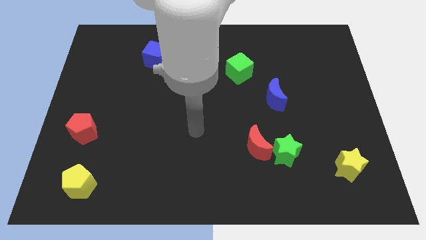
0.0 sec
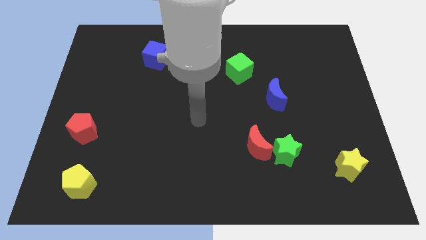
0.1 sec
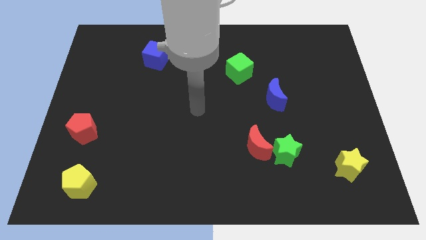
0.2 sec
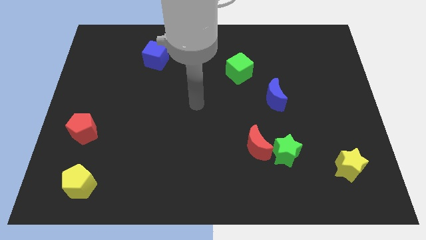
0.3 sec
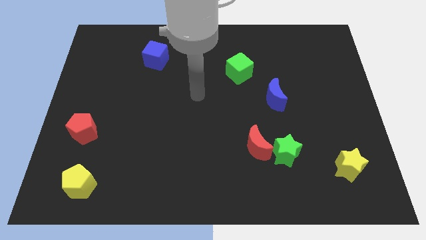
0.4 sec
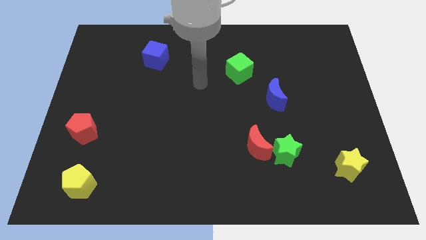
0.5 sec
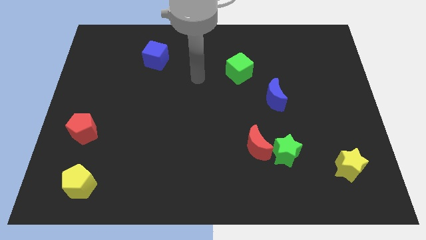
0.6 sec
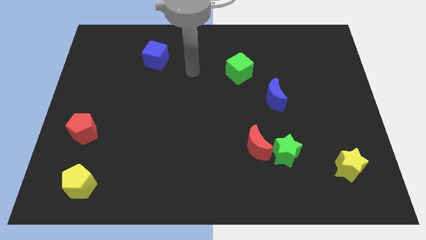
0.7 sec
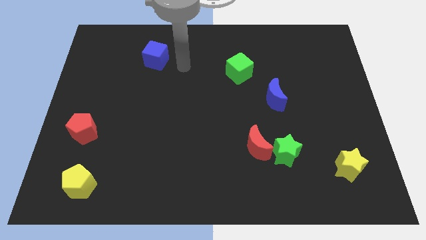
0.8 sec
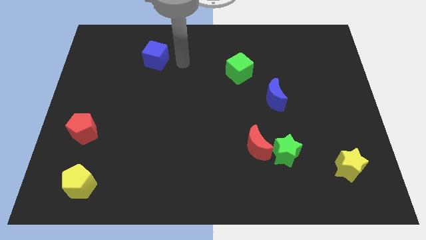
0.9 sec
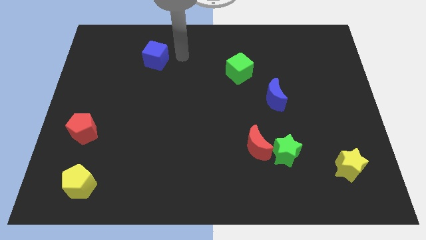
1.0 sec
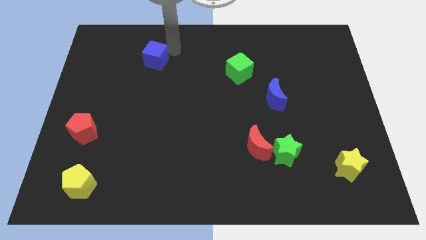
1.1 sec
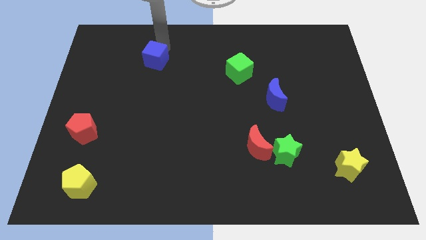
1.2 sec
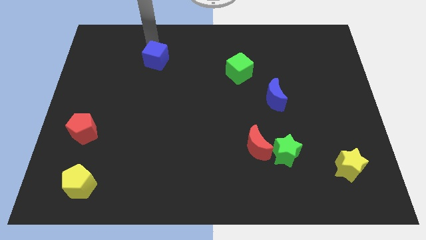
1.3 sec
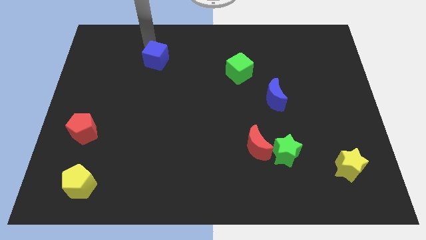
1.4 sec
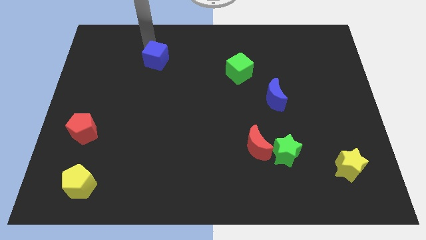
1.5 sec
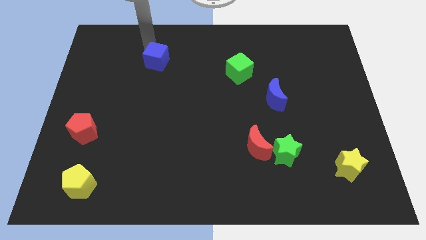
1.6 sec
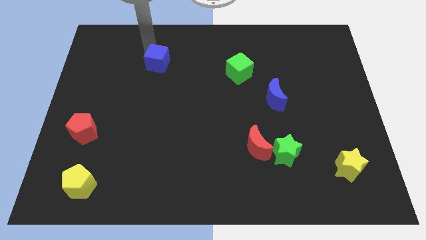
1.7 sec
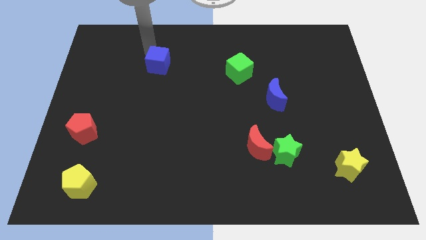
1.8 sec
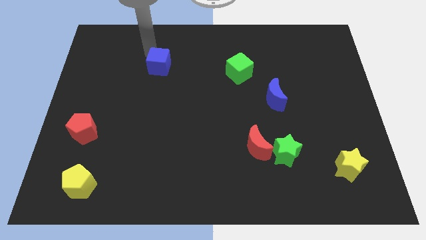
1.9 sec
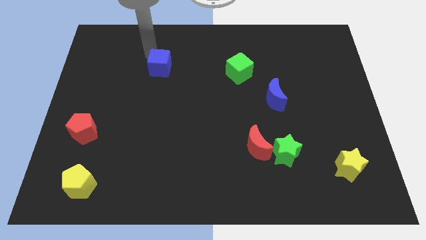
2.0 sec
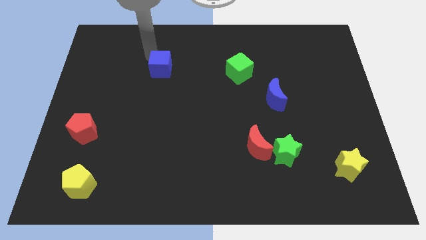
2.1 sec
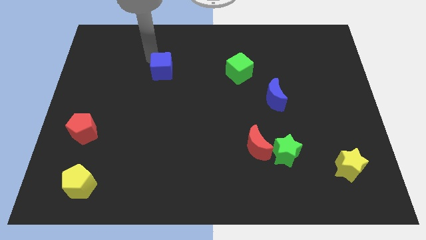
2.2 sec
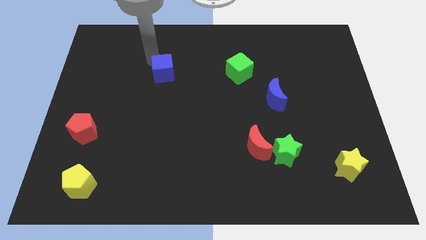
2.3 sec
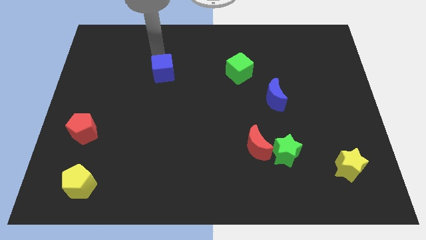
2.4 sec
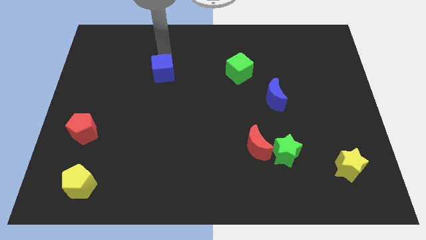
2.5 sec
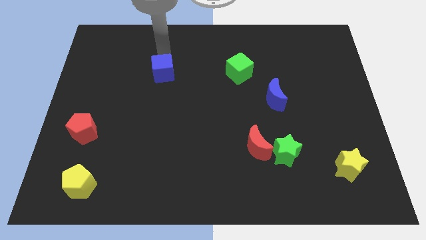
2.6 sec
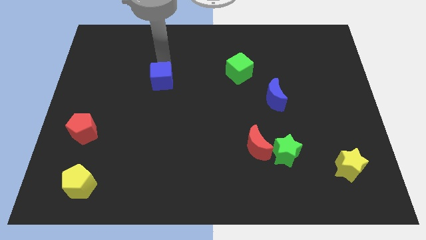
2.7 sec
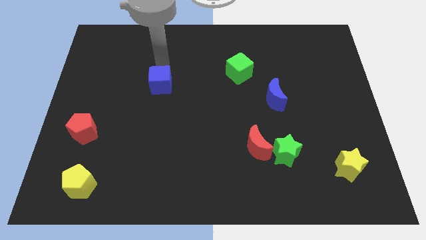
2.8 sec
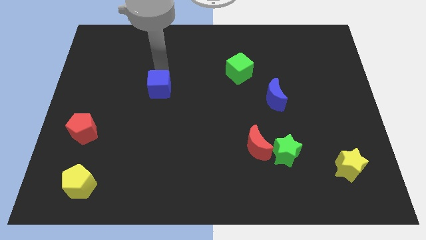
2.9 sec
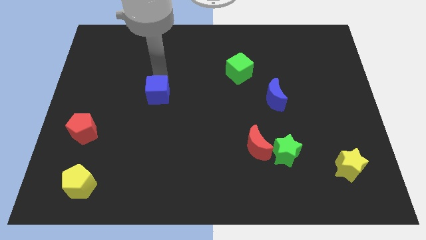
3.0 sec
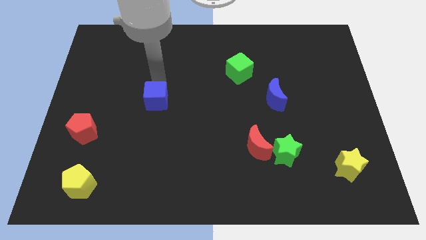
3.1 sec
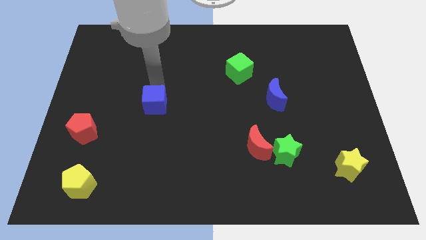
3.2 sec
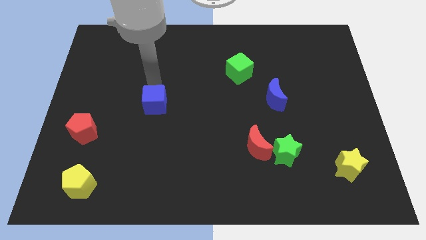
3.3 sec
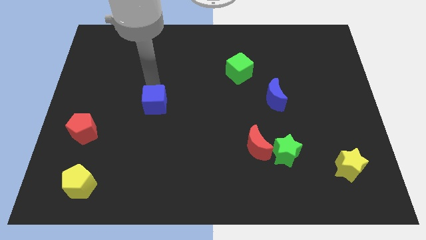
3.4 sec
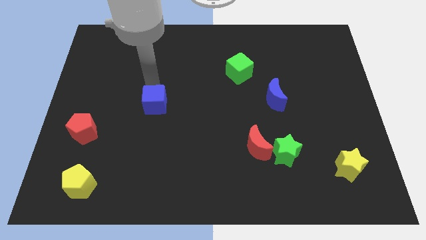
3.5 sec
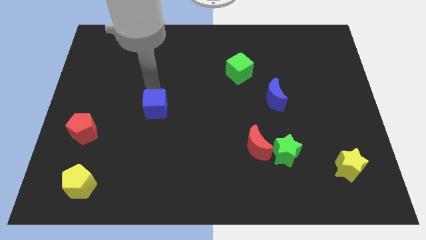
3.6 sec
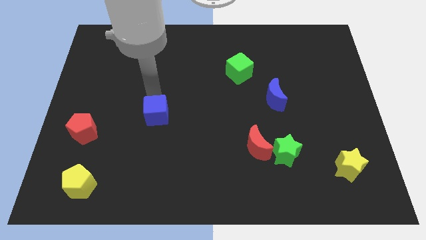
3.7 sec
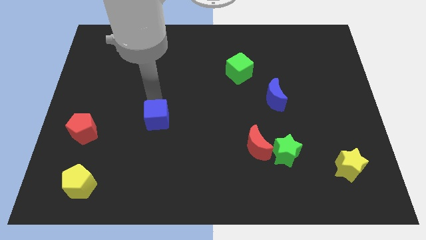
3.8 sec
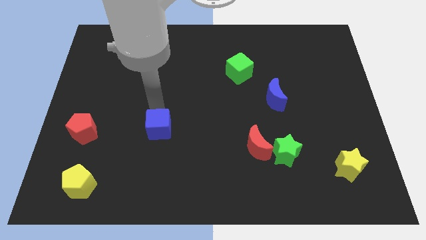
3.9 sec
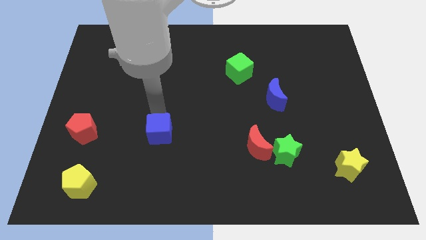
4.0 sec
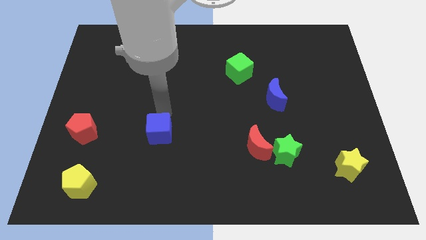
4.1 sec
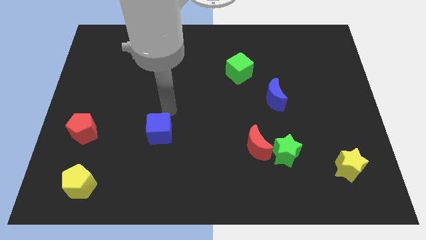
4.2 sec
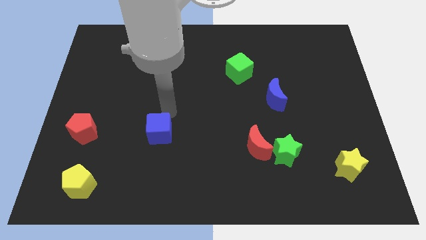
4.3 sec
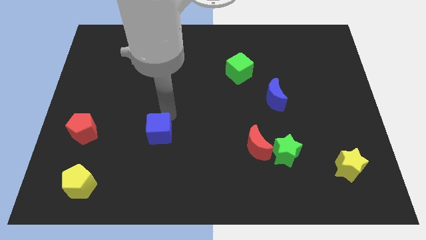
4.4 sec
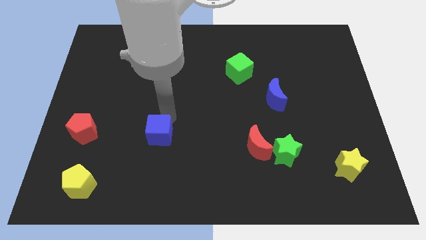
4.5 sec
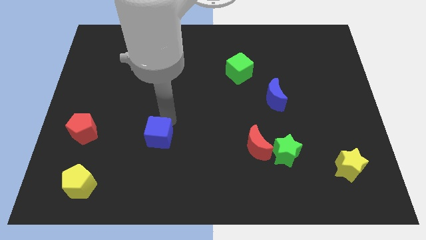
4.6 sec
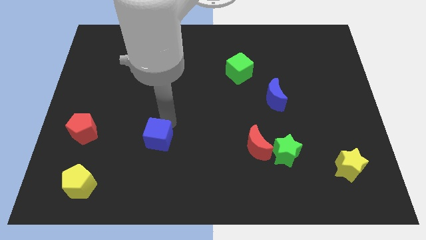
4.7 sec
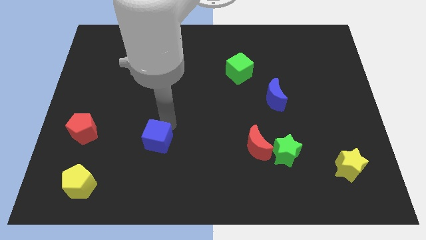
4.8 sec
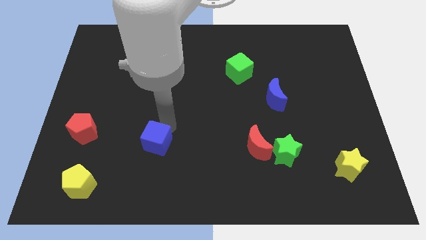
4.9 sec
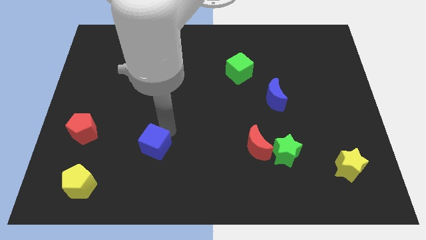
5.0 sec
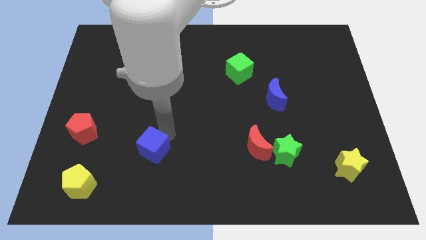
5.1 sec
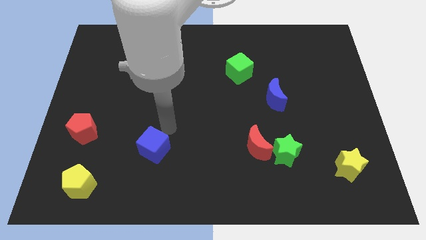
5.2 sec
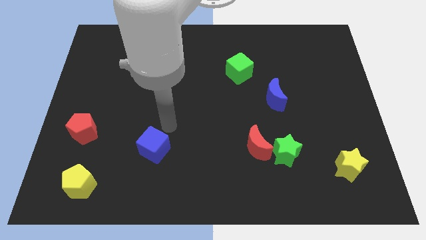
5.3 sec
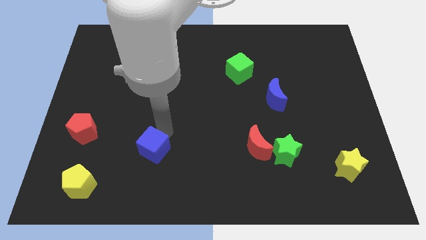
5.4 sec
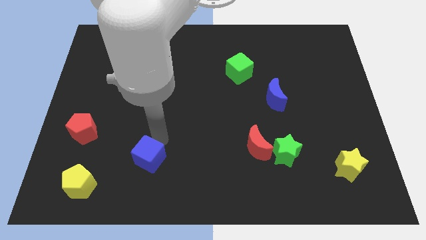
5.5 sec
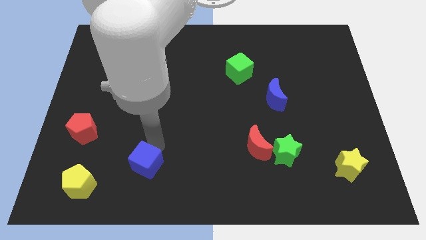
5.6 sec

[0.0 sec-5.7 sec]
slide the blue cube just right of the yellow pentagon

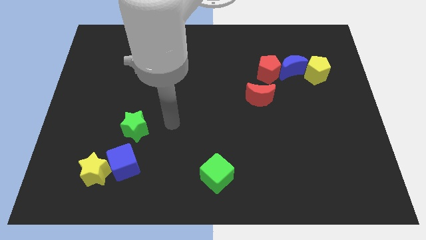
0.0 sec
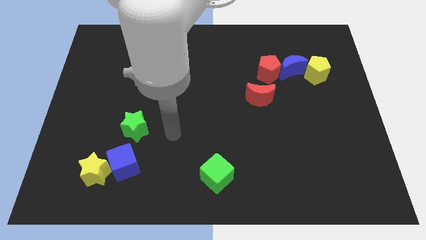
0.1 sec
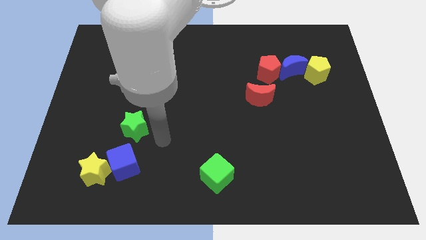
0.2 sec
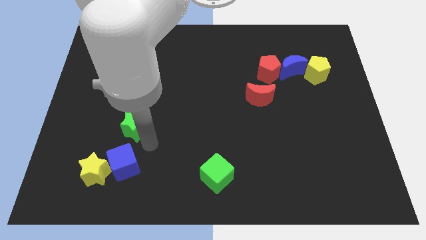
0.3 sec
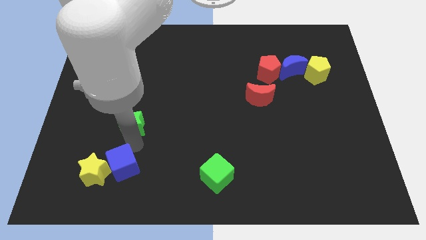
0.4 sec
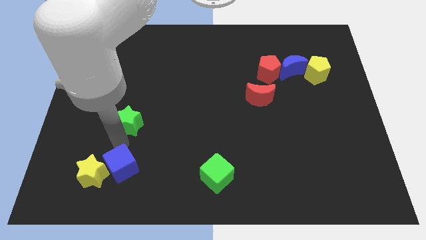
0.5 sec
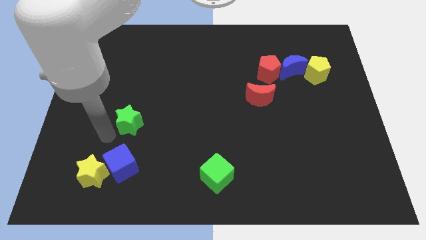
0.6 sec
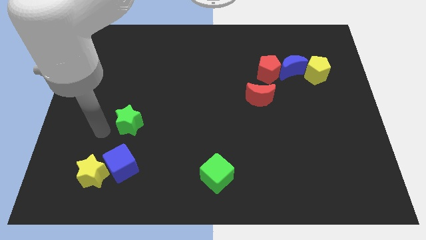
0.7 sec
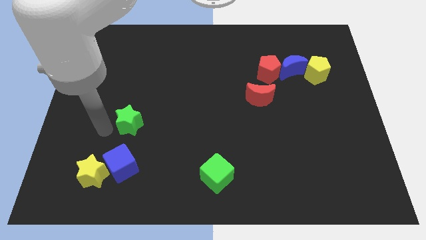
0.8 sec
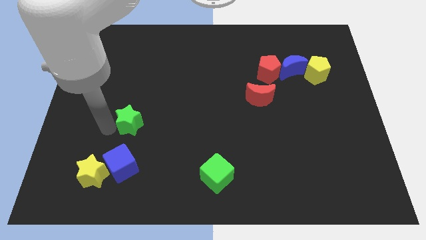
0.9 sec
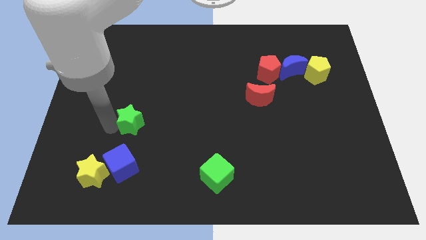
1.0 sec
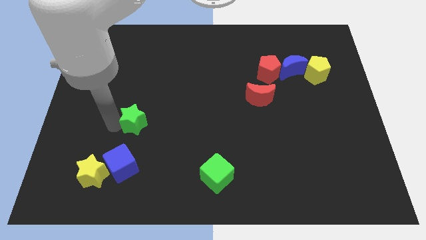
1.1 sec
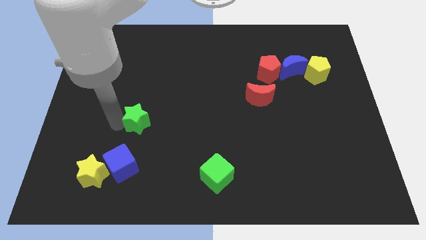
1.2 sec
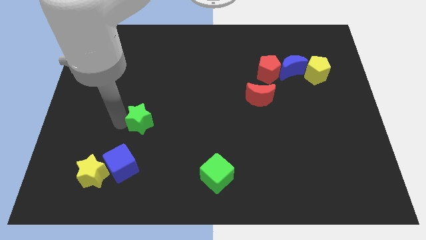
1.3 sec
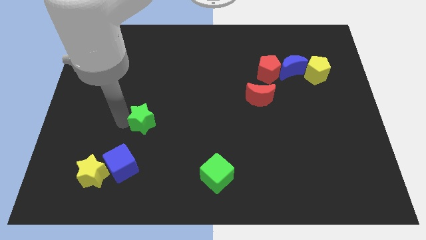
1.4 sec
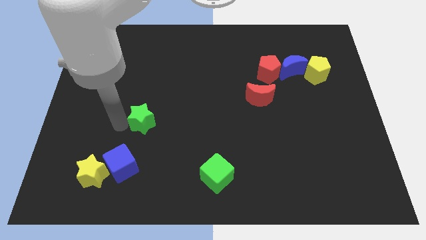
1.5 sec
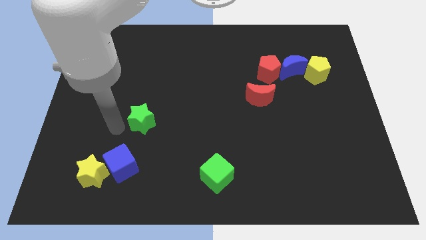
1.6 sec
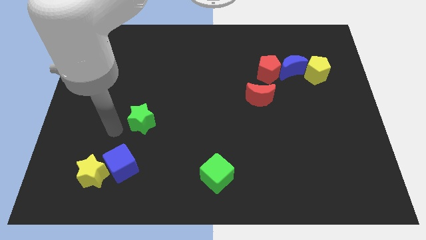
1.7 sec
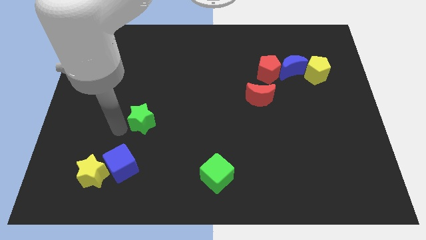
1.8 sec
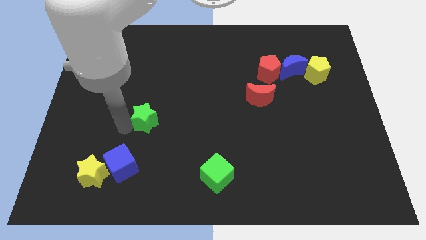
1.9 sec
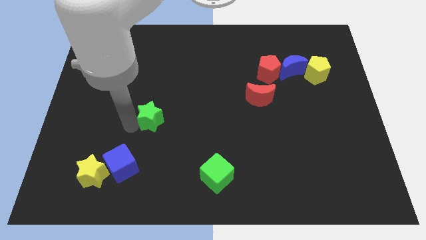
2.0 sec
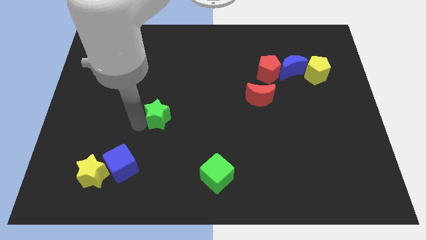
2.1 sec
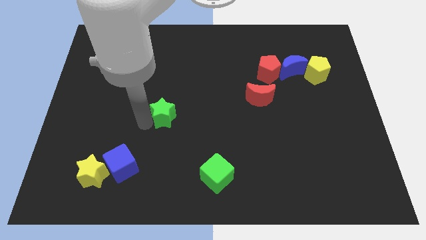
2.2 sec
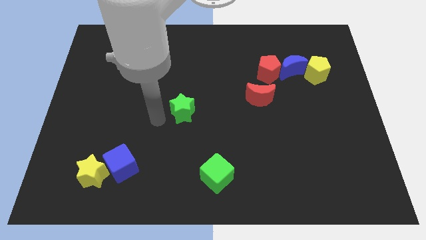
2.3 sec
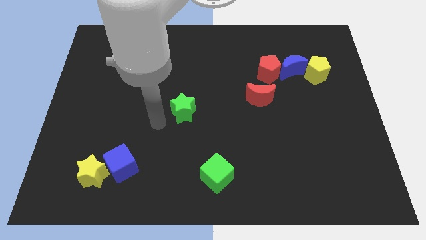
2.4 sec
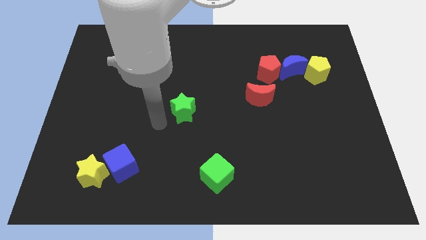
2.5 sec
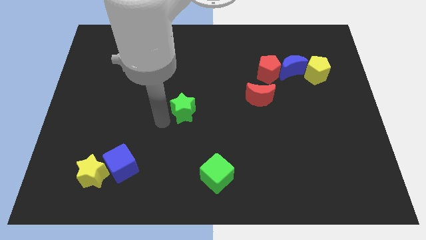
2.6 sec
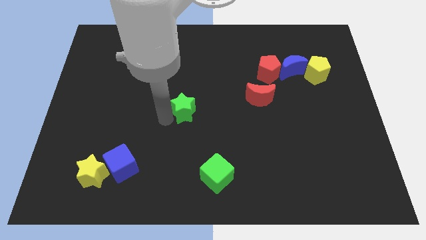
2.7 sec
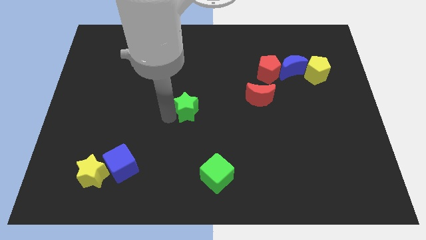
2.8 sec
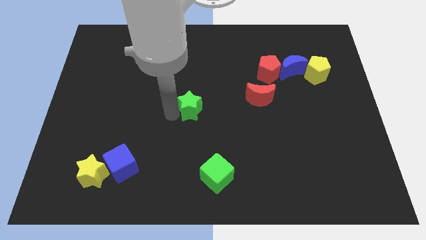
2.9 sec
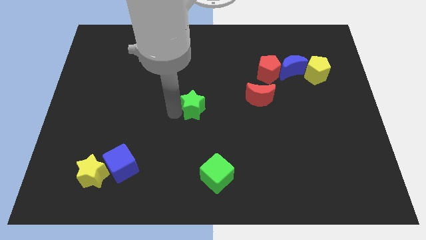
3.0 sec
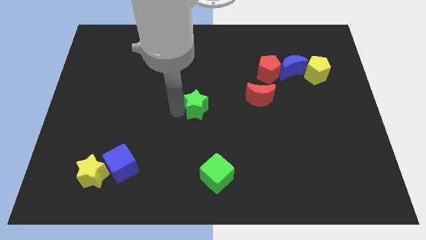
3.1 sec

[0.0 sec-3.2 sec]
put the green star just left of the red moon
